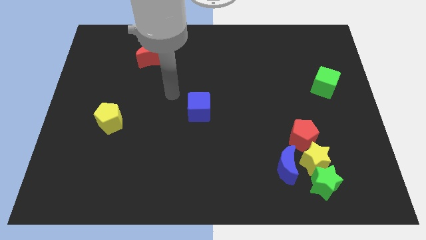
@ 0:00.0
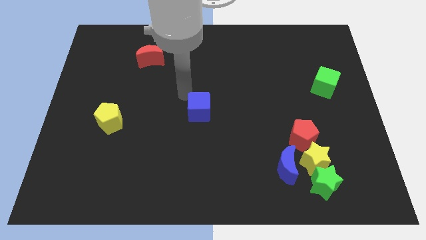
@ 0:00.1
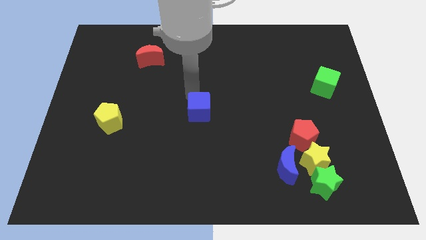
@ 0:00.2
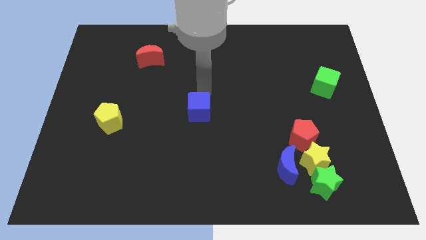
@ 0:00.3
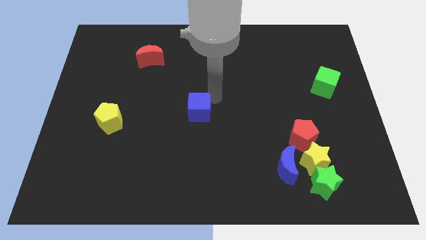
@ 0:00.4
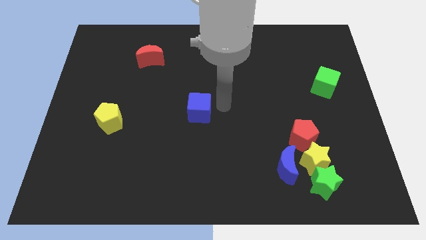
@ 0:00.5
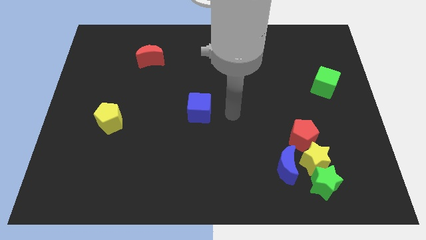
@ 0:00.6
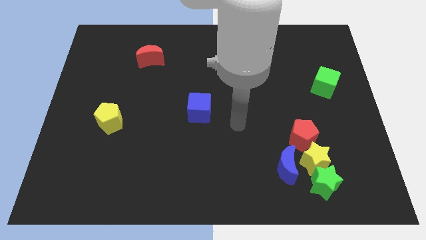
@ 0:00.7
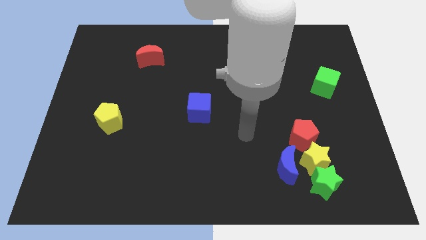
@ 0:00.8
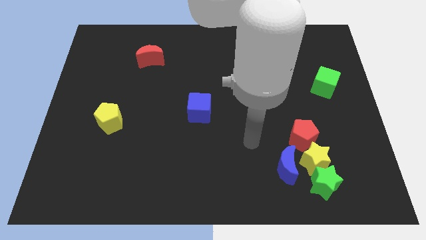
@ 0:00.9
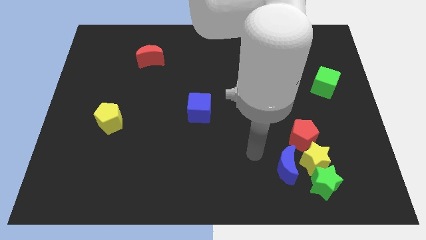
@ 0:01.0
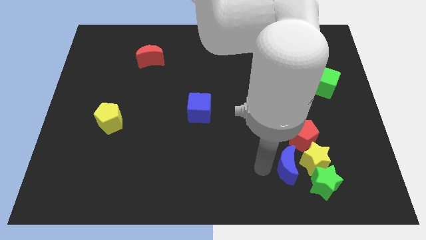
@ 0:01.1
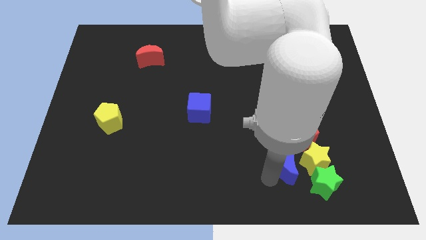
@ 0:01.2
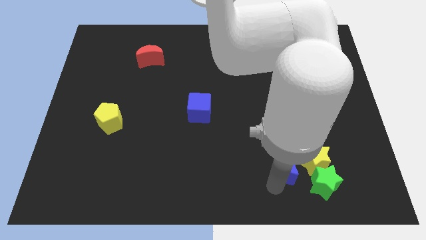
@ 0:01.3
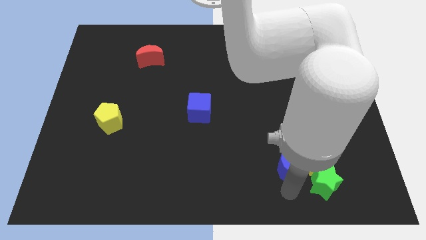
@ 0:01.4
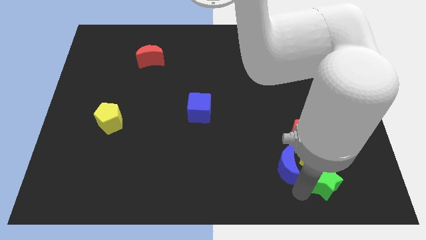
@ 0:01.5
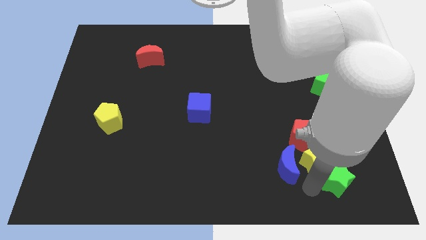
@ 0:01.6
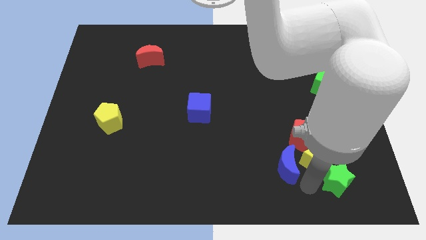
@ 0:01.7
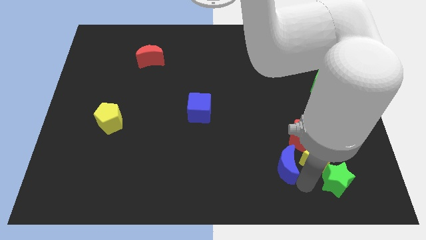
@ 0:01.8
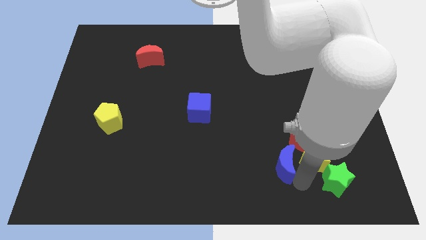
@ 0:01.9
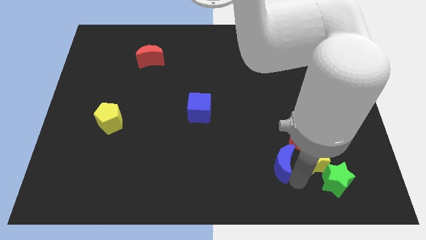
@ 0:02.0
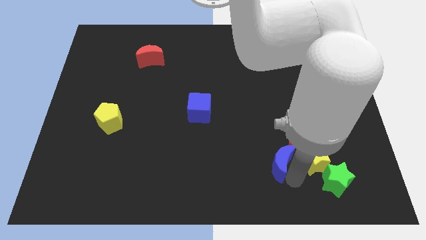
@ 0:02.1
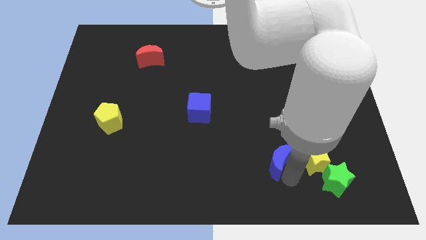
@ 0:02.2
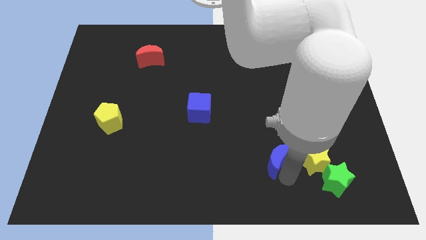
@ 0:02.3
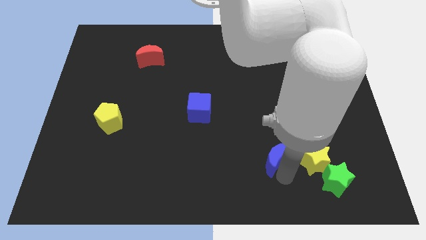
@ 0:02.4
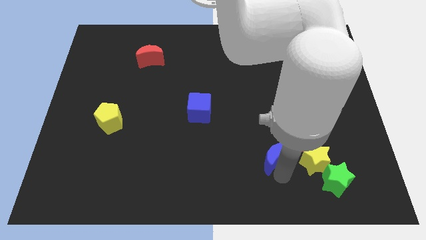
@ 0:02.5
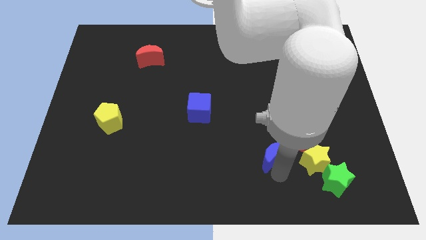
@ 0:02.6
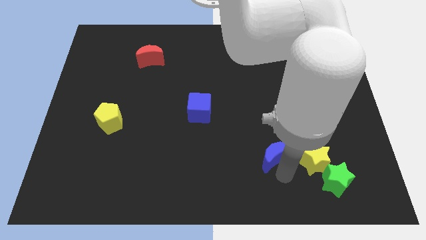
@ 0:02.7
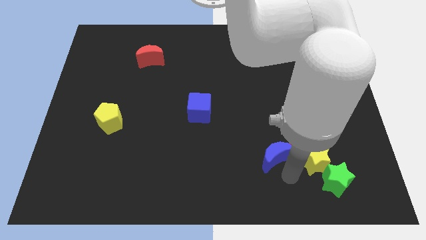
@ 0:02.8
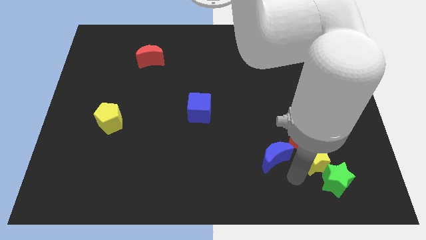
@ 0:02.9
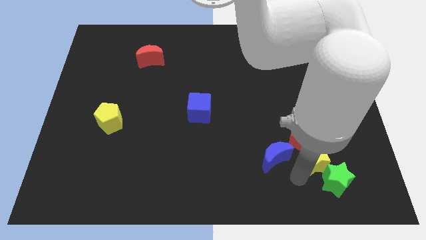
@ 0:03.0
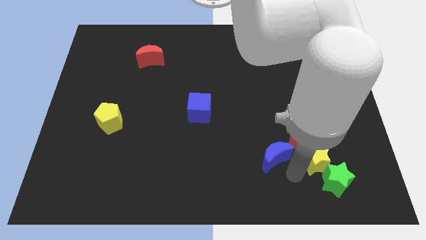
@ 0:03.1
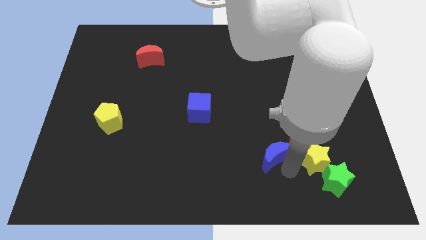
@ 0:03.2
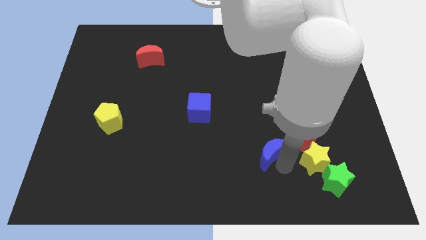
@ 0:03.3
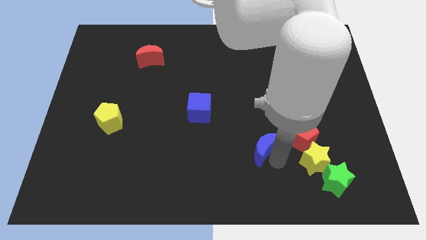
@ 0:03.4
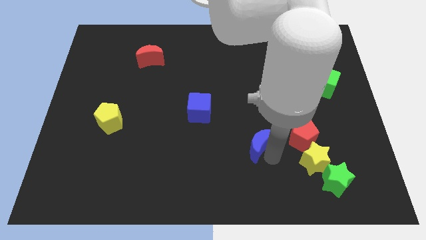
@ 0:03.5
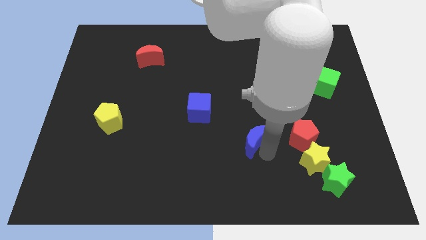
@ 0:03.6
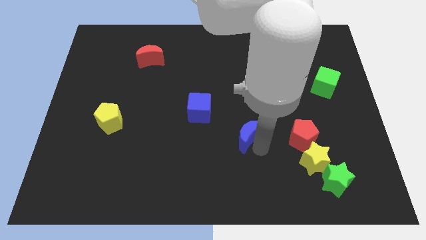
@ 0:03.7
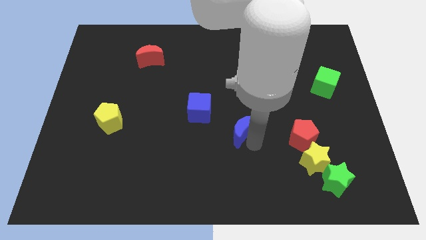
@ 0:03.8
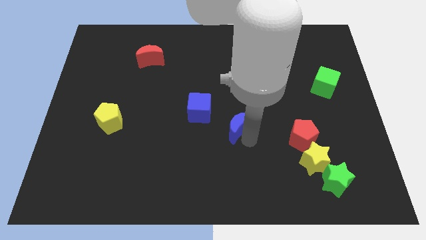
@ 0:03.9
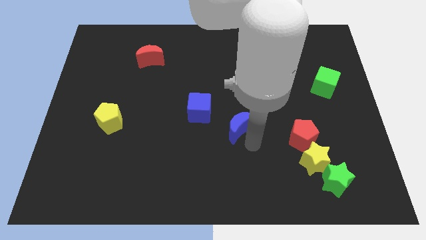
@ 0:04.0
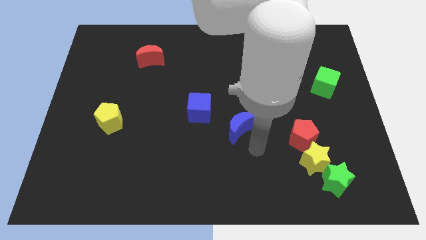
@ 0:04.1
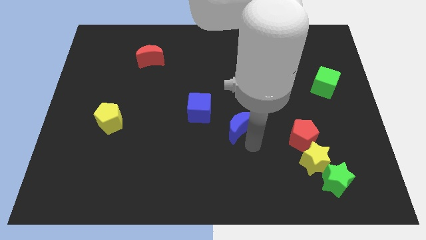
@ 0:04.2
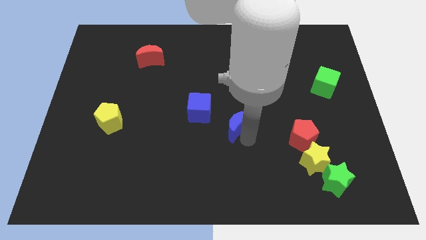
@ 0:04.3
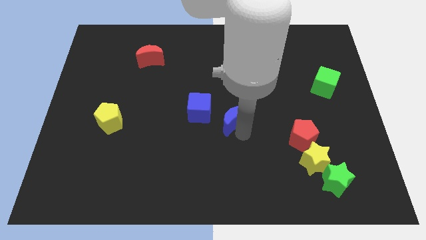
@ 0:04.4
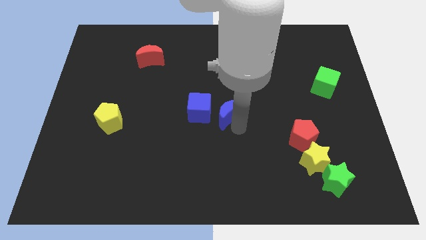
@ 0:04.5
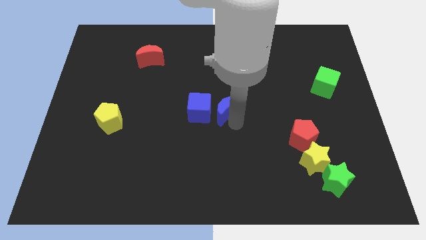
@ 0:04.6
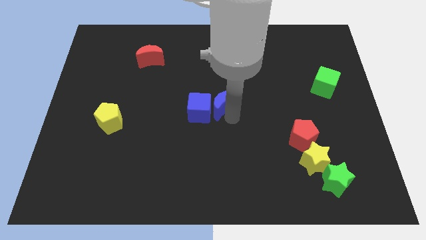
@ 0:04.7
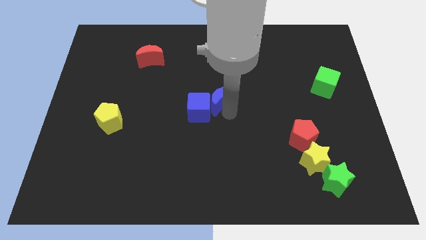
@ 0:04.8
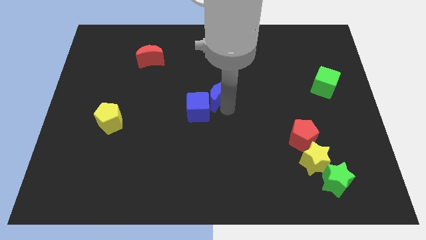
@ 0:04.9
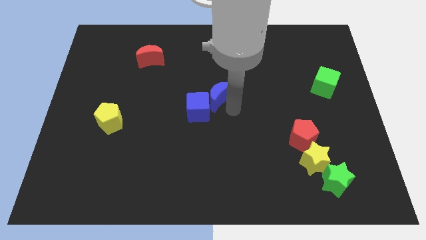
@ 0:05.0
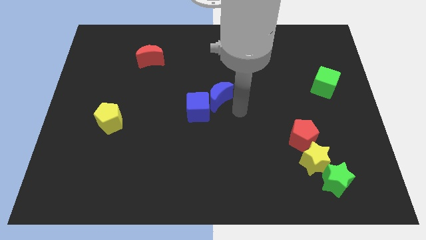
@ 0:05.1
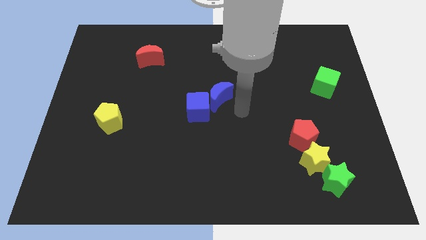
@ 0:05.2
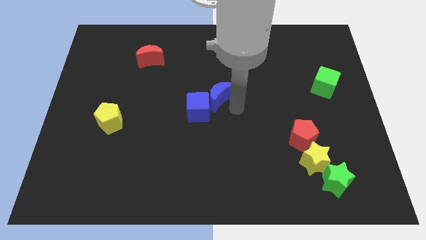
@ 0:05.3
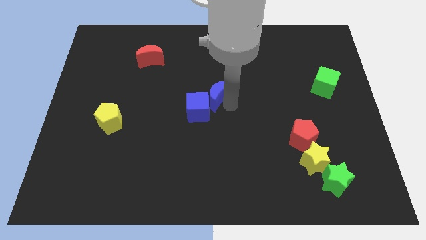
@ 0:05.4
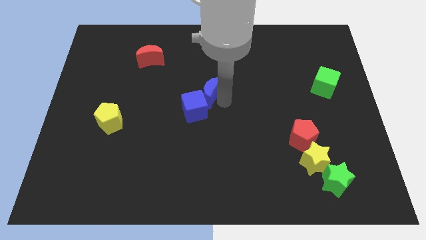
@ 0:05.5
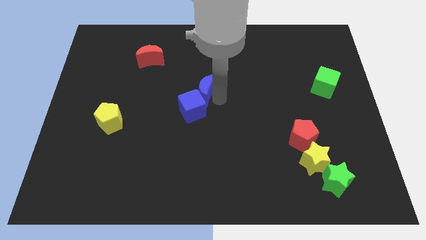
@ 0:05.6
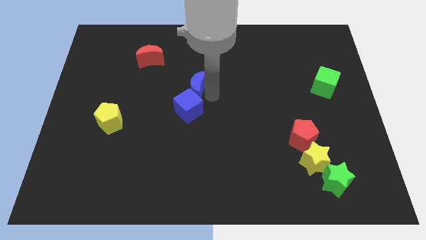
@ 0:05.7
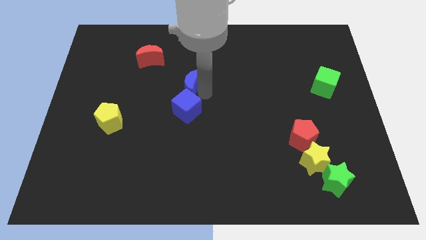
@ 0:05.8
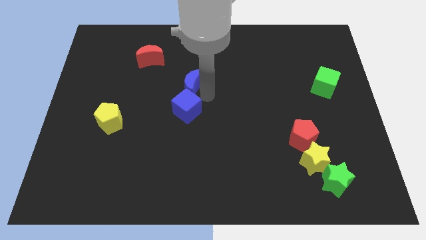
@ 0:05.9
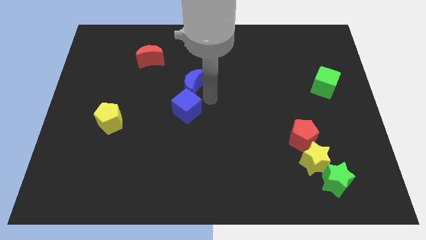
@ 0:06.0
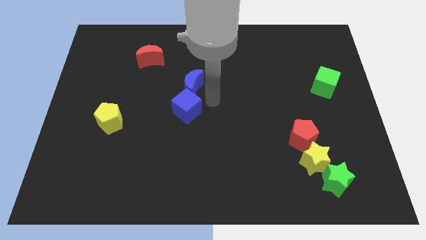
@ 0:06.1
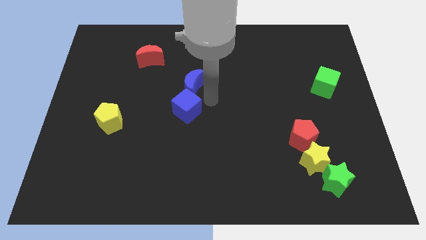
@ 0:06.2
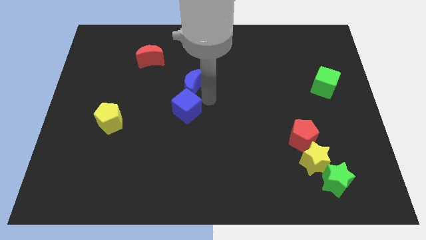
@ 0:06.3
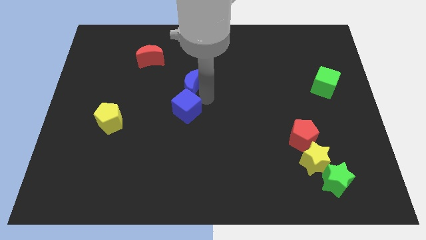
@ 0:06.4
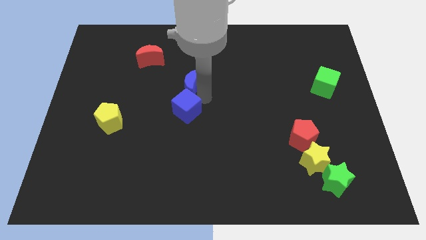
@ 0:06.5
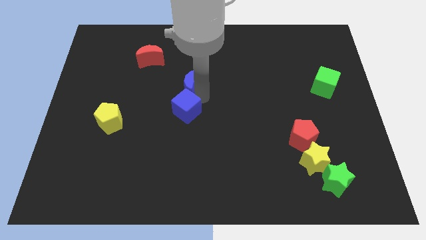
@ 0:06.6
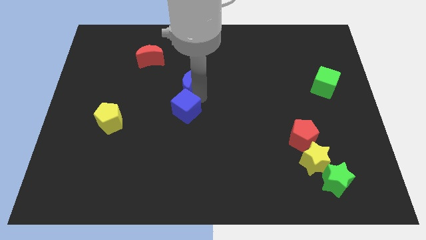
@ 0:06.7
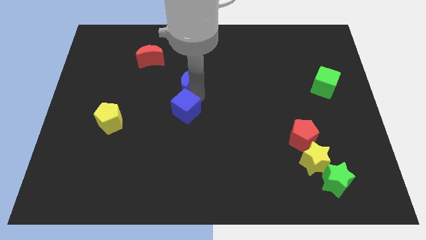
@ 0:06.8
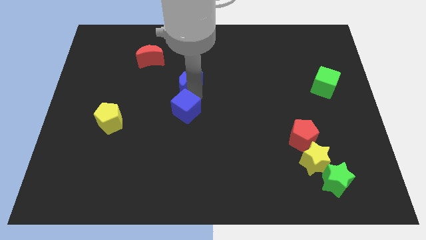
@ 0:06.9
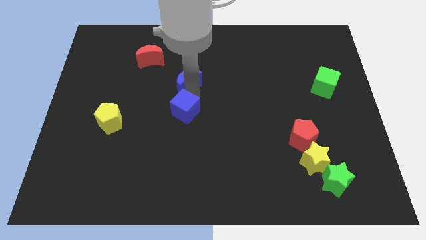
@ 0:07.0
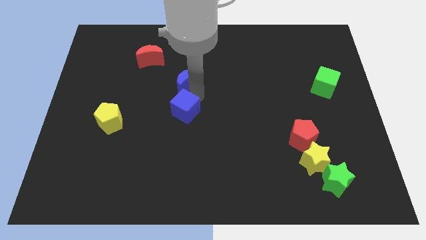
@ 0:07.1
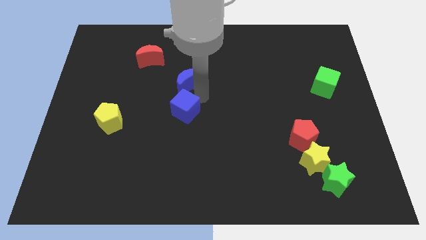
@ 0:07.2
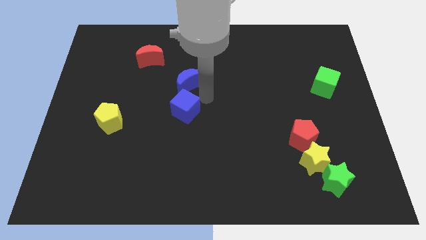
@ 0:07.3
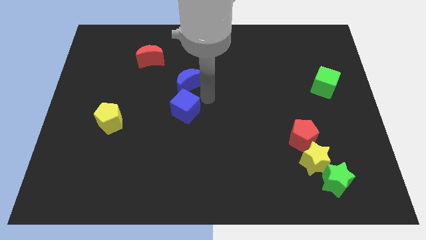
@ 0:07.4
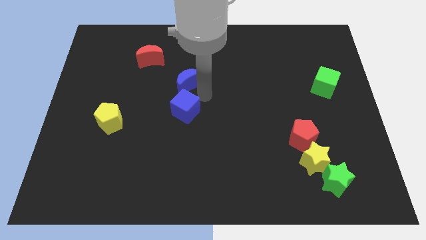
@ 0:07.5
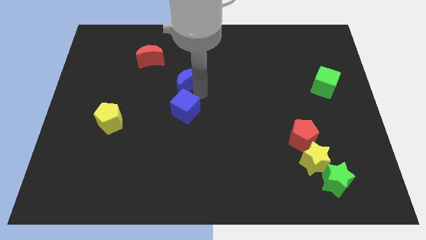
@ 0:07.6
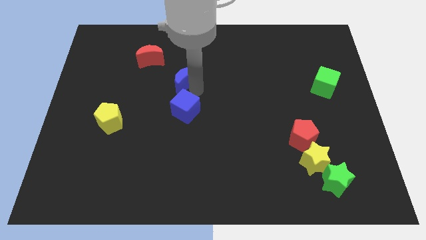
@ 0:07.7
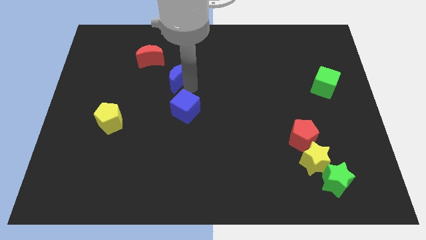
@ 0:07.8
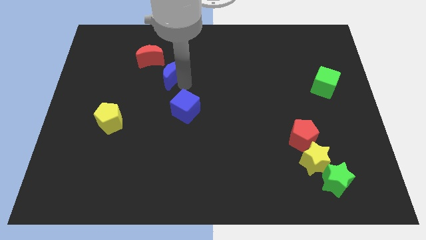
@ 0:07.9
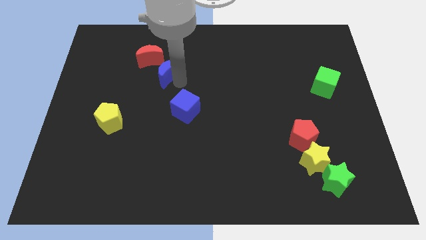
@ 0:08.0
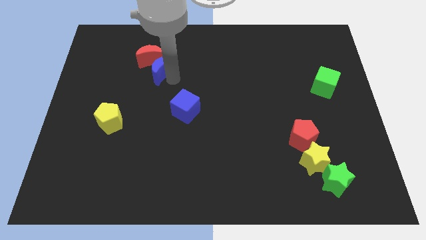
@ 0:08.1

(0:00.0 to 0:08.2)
move the blue moon next to the red moon
